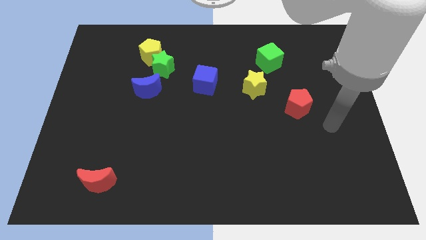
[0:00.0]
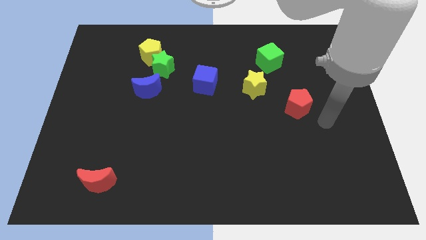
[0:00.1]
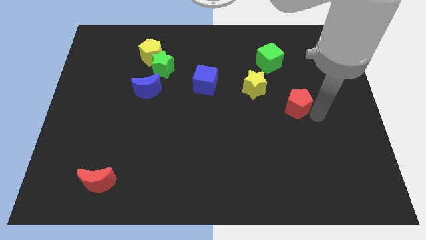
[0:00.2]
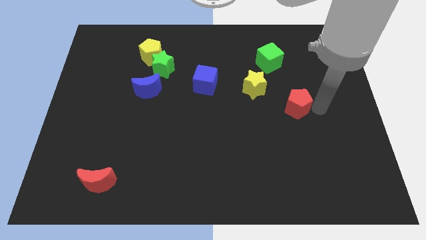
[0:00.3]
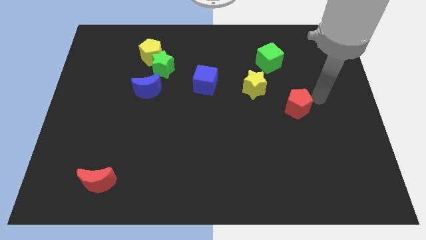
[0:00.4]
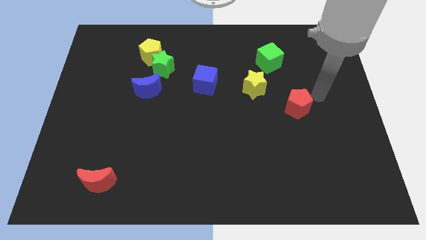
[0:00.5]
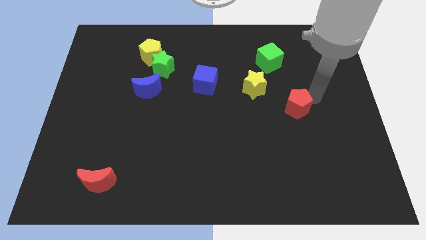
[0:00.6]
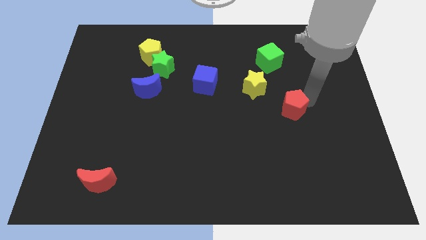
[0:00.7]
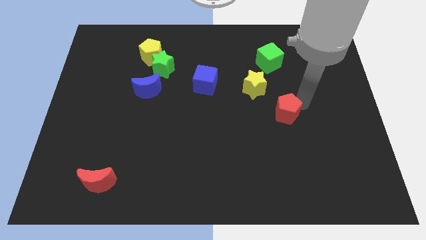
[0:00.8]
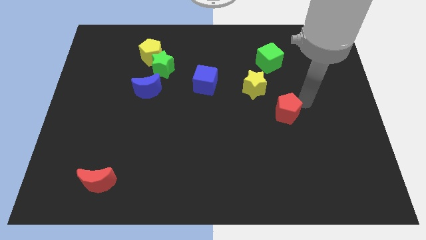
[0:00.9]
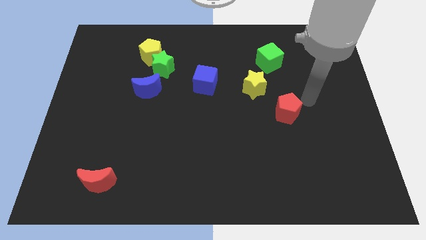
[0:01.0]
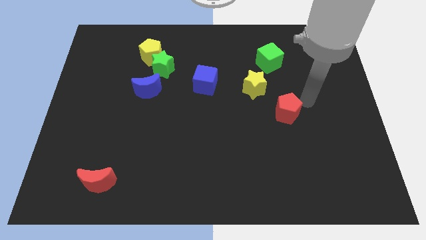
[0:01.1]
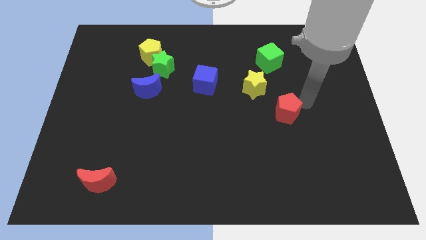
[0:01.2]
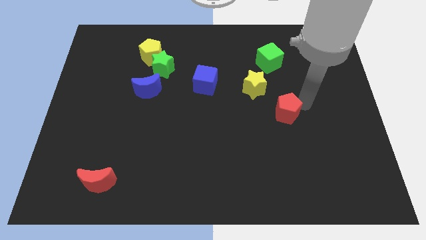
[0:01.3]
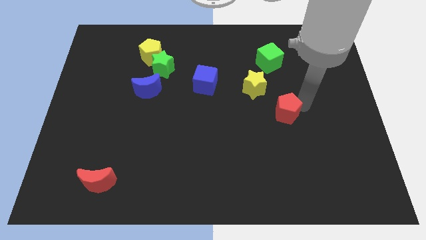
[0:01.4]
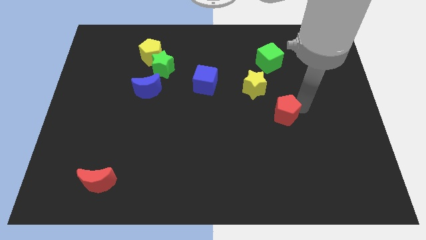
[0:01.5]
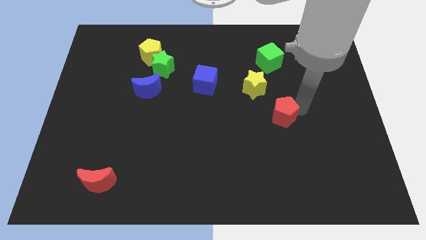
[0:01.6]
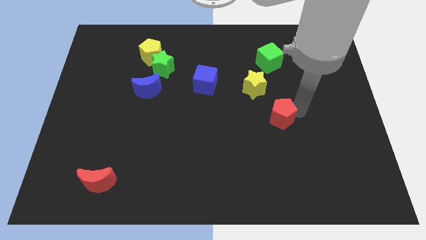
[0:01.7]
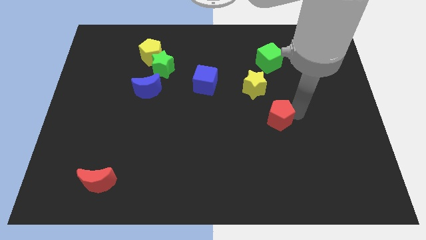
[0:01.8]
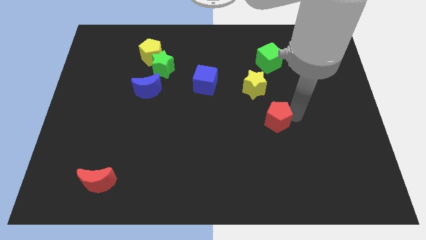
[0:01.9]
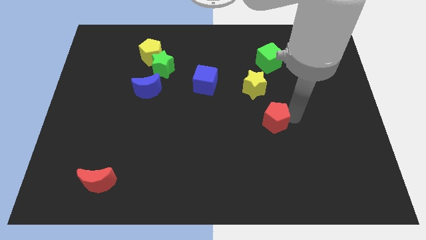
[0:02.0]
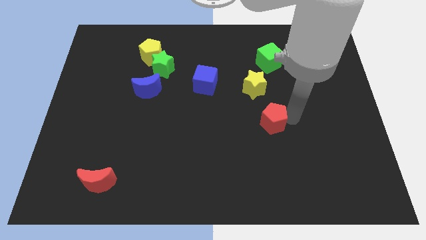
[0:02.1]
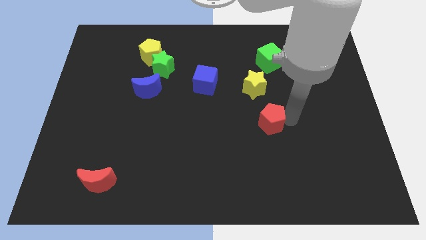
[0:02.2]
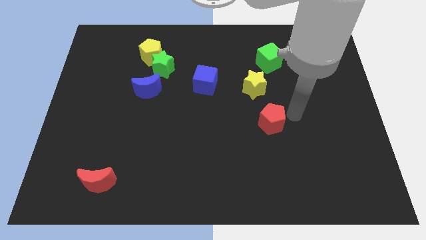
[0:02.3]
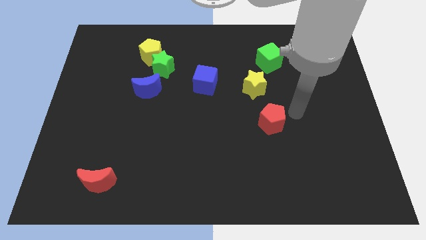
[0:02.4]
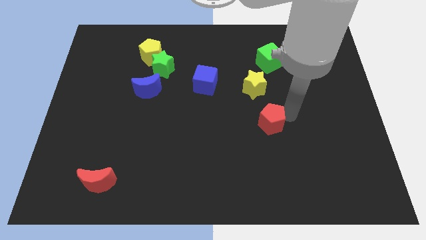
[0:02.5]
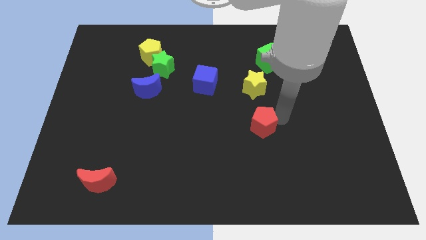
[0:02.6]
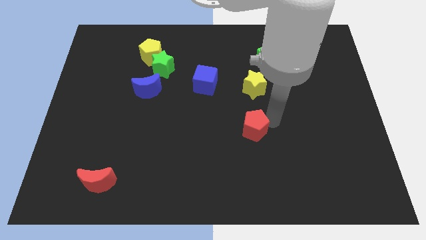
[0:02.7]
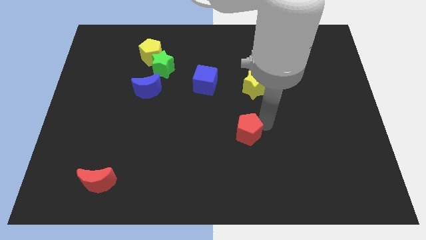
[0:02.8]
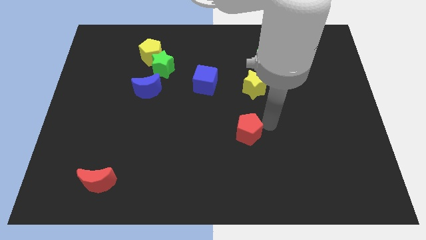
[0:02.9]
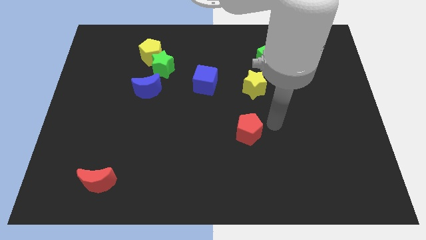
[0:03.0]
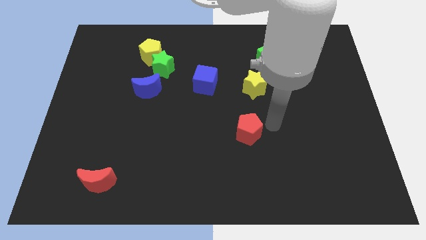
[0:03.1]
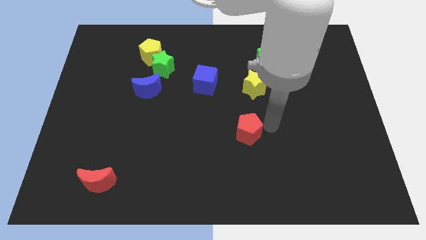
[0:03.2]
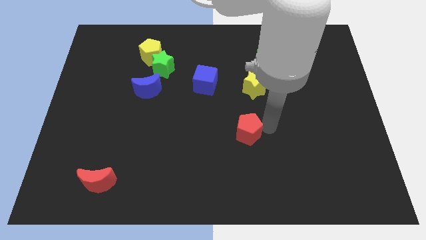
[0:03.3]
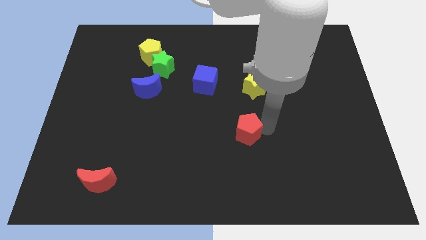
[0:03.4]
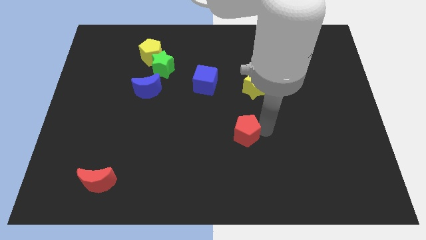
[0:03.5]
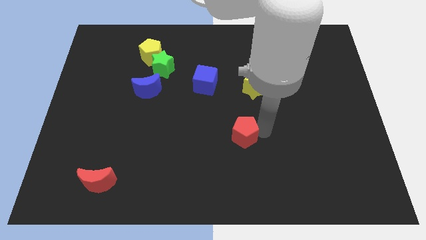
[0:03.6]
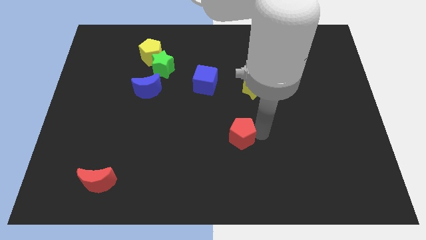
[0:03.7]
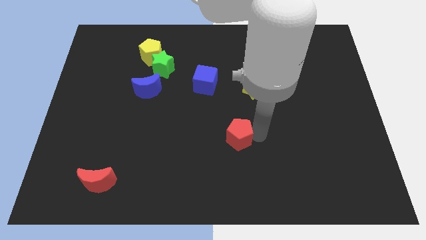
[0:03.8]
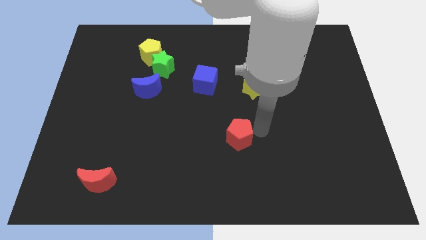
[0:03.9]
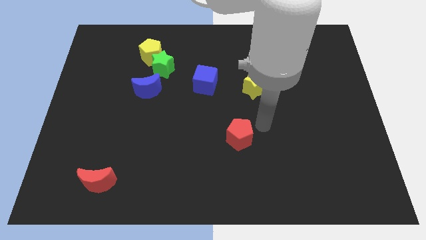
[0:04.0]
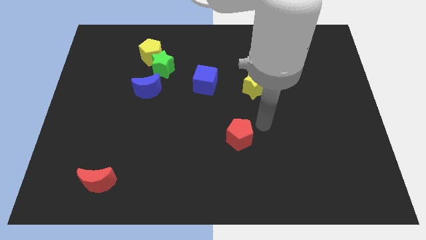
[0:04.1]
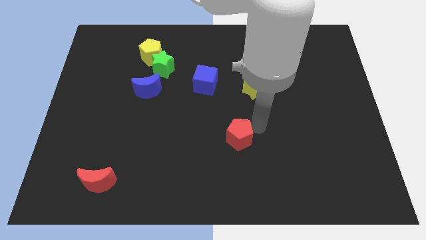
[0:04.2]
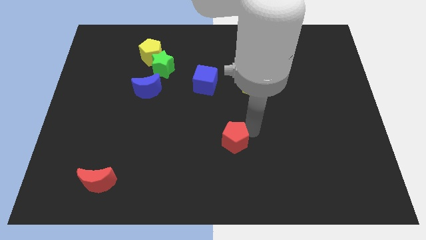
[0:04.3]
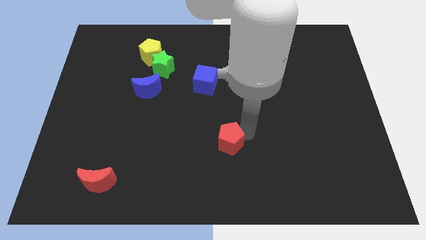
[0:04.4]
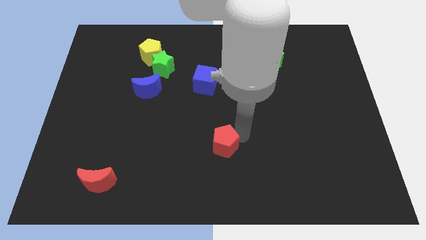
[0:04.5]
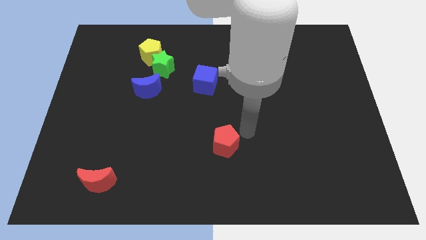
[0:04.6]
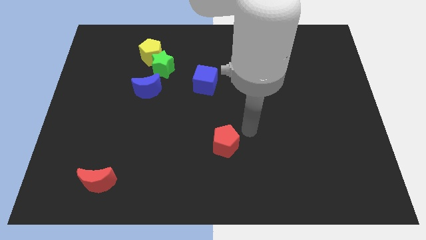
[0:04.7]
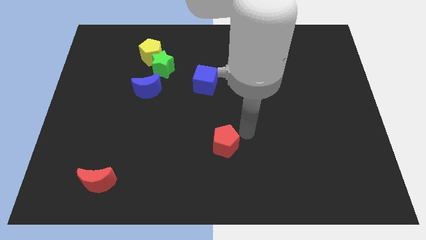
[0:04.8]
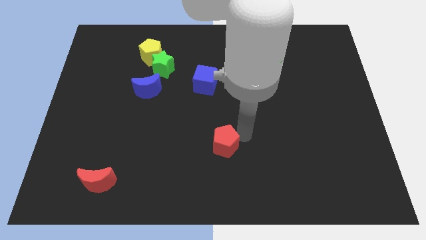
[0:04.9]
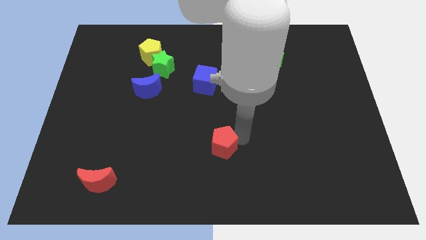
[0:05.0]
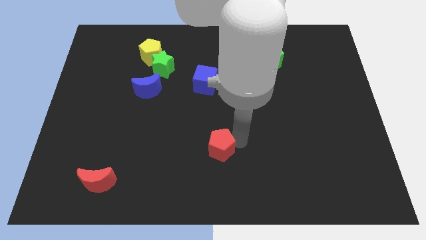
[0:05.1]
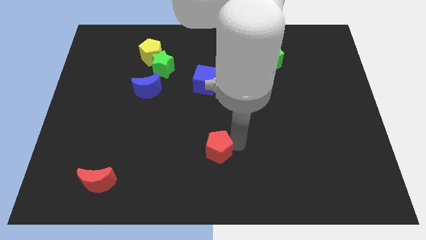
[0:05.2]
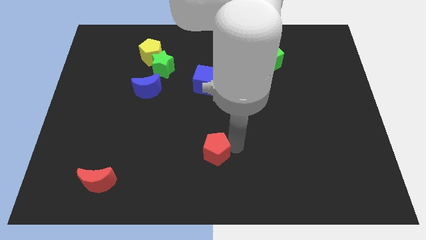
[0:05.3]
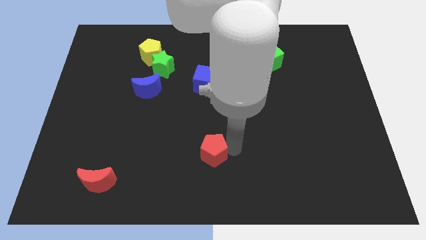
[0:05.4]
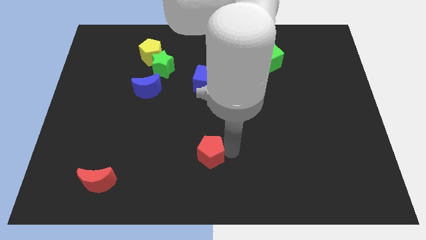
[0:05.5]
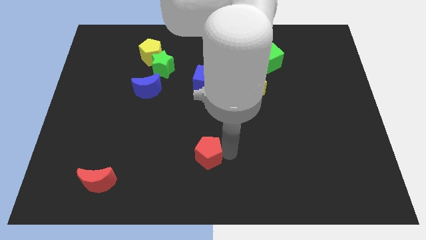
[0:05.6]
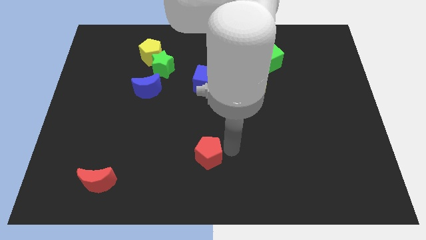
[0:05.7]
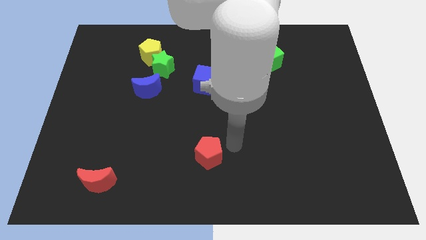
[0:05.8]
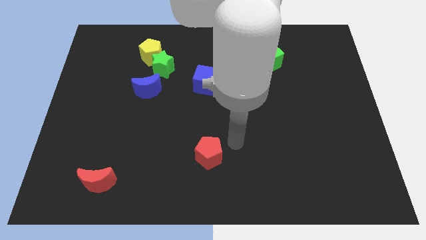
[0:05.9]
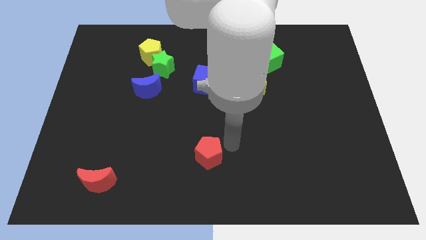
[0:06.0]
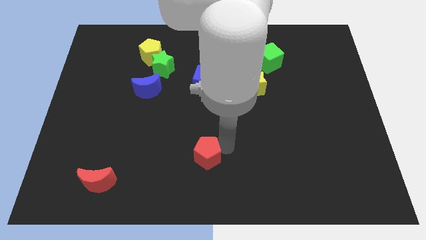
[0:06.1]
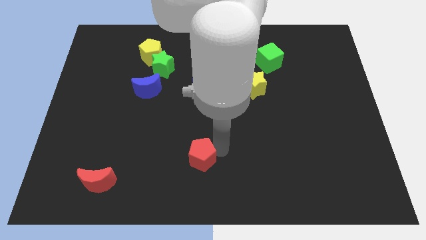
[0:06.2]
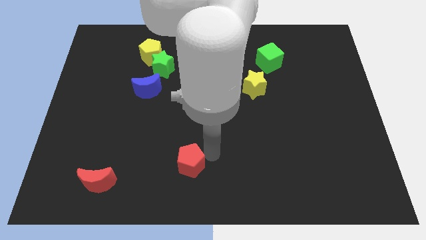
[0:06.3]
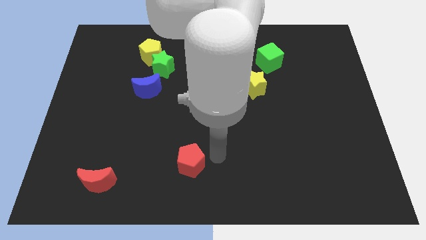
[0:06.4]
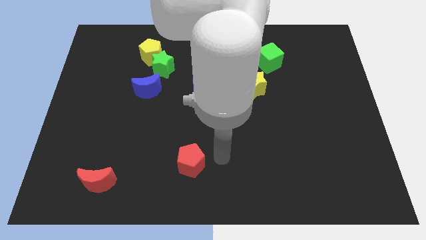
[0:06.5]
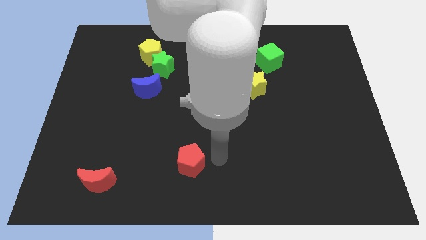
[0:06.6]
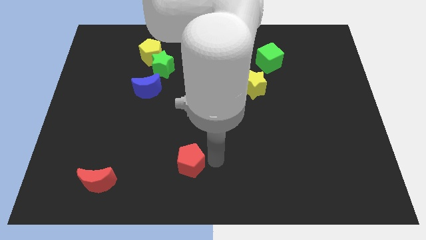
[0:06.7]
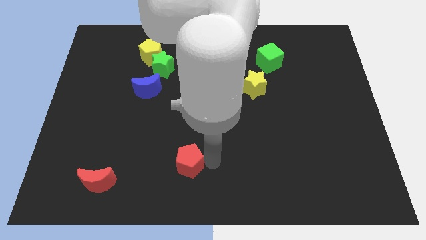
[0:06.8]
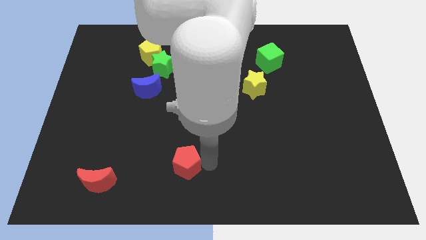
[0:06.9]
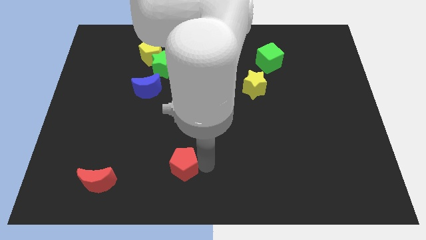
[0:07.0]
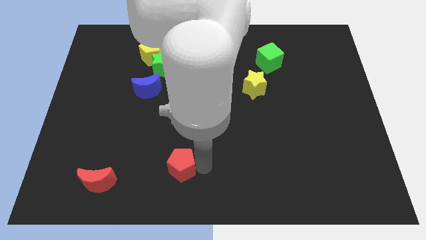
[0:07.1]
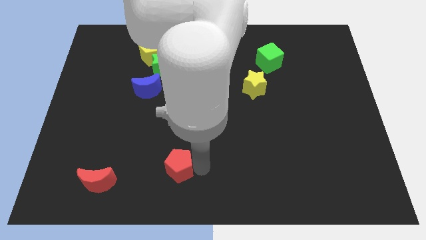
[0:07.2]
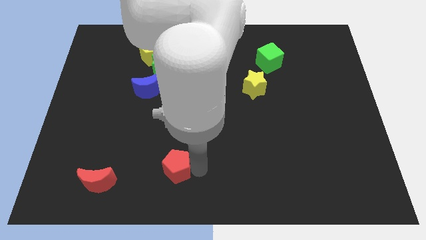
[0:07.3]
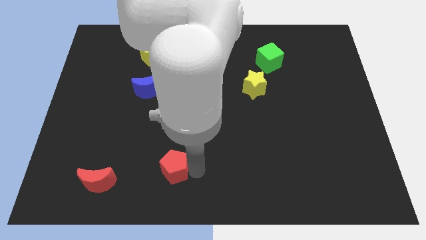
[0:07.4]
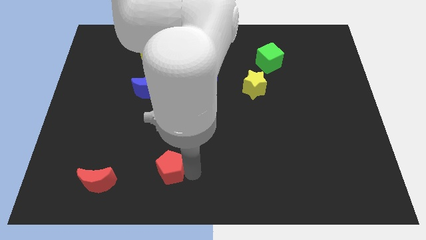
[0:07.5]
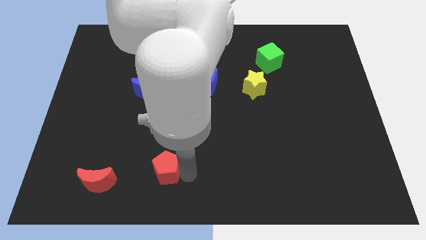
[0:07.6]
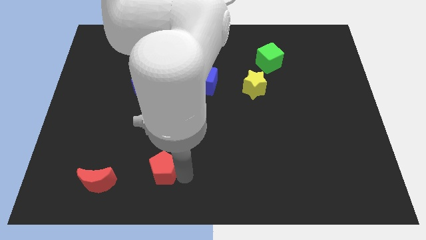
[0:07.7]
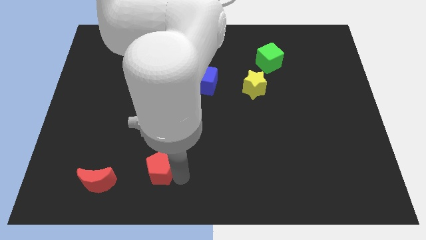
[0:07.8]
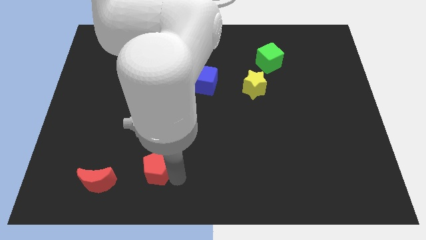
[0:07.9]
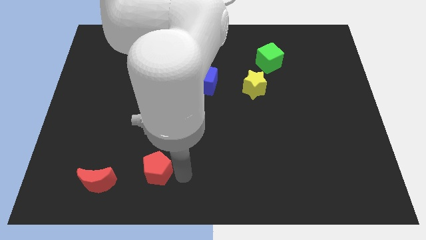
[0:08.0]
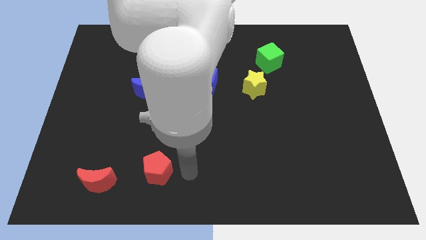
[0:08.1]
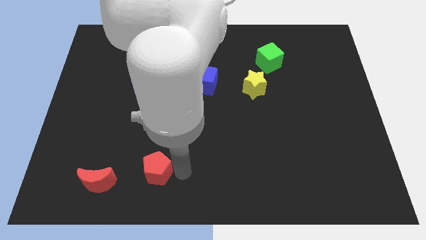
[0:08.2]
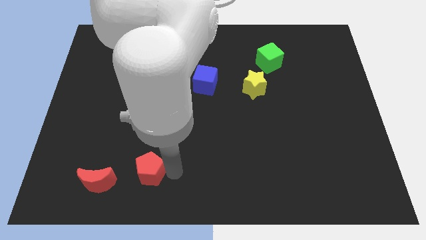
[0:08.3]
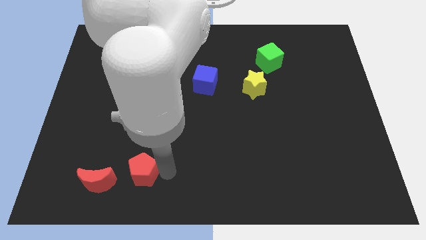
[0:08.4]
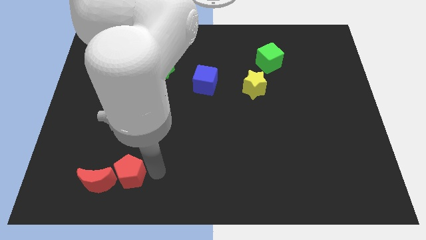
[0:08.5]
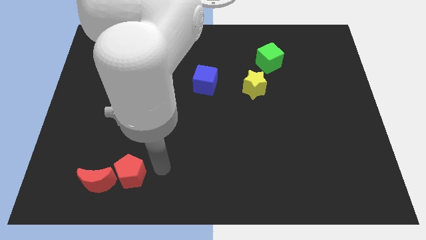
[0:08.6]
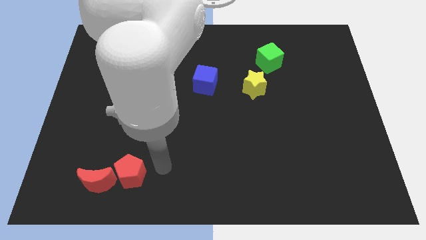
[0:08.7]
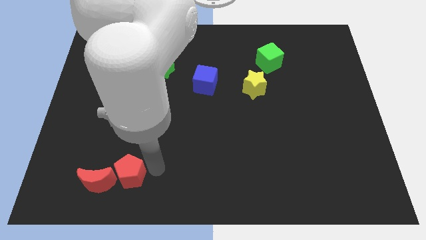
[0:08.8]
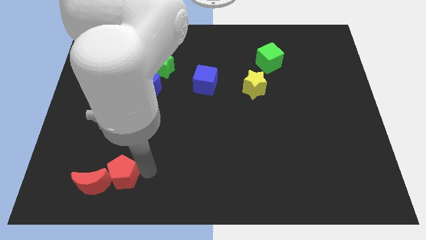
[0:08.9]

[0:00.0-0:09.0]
move the red pentagon towards the red moon
